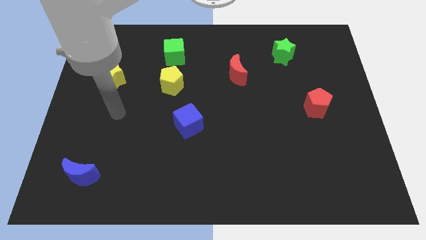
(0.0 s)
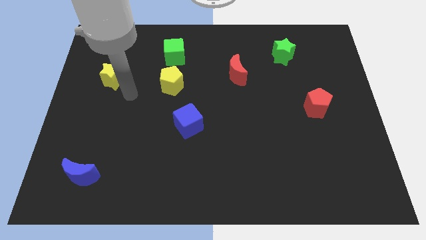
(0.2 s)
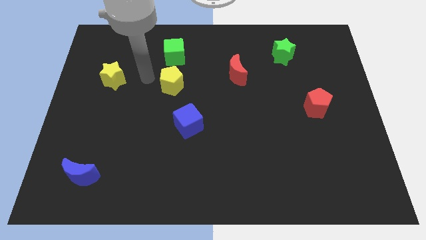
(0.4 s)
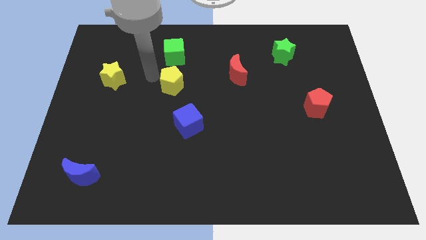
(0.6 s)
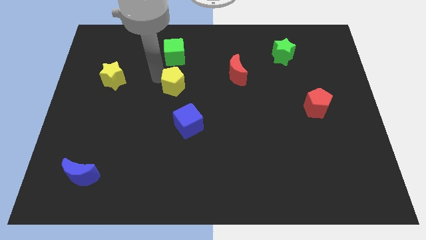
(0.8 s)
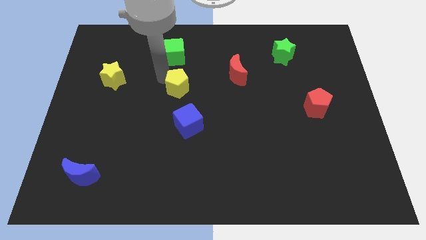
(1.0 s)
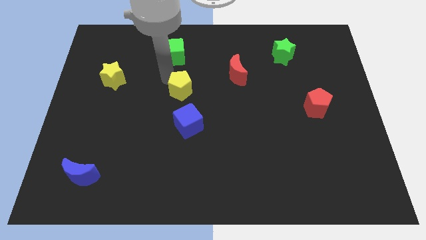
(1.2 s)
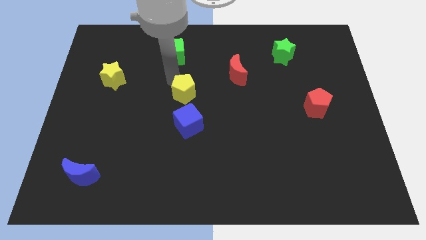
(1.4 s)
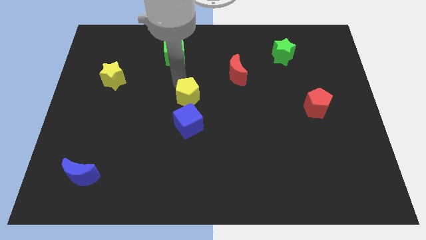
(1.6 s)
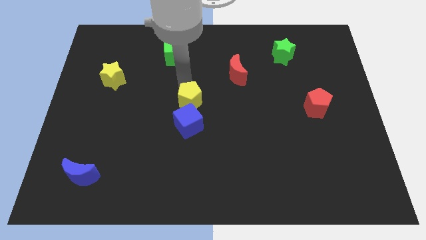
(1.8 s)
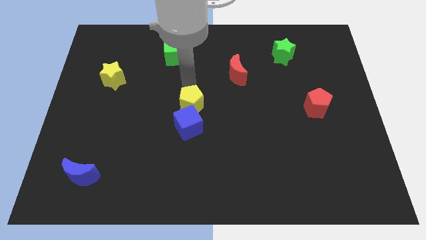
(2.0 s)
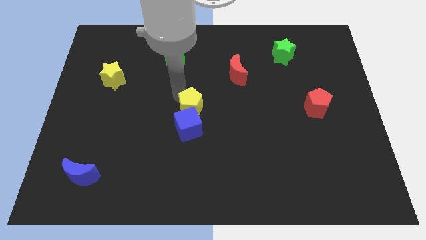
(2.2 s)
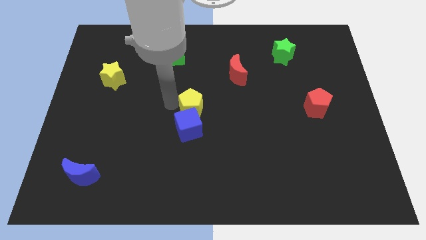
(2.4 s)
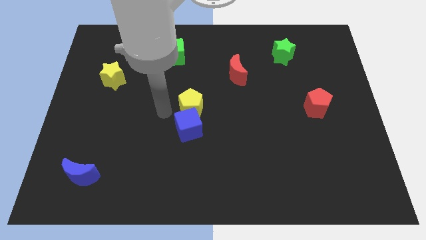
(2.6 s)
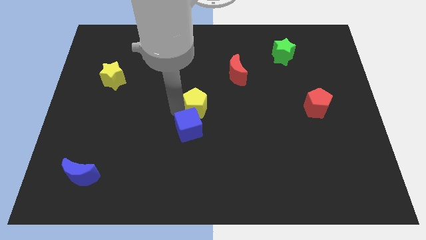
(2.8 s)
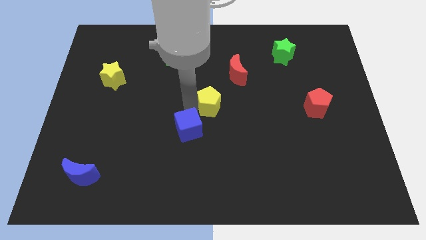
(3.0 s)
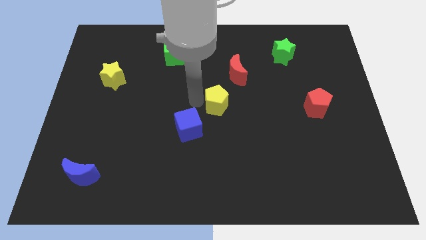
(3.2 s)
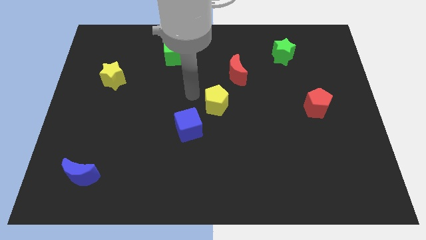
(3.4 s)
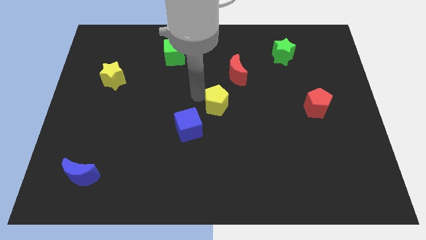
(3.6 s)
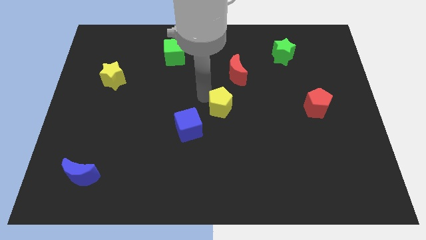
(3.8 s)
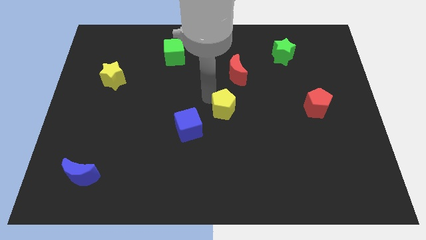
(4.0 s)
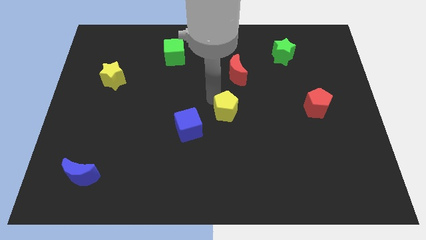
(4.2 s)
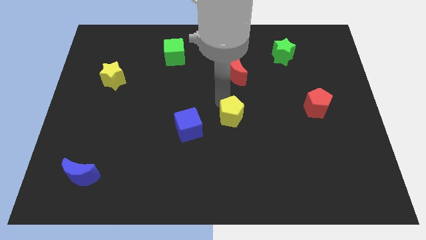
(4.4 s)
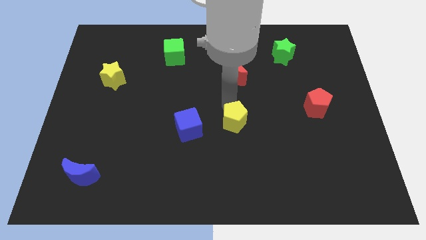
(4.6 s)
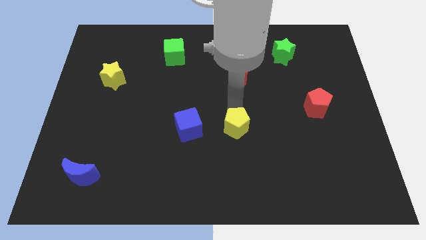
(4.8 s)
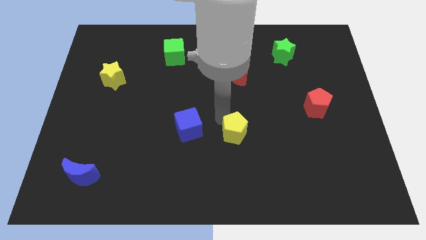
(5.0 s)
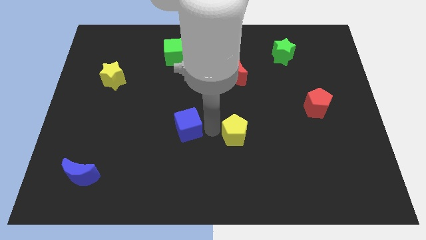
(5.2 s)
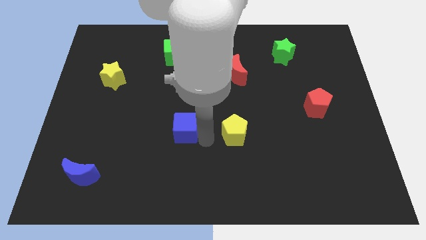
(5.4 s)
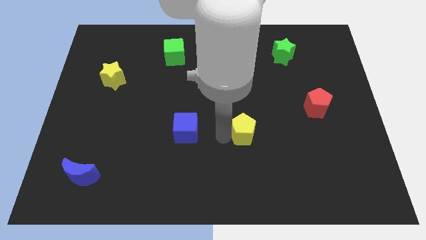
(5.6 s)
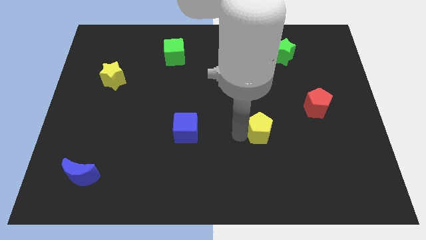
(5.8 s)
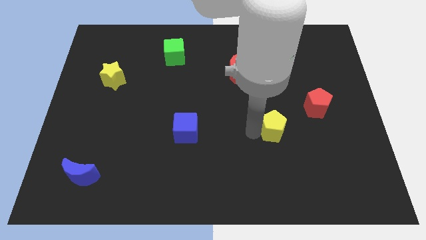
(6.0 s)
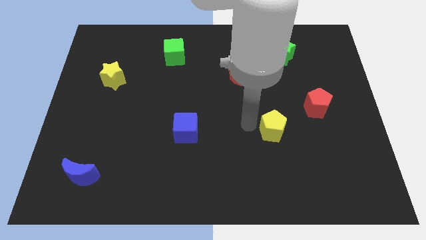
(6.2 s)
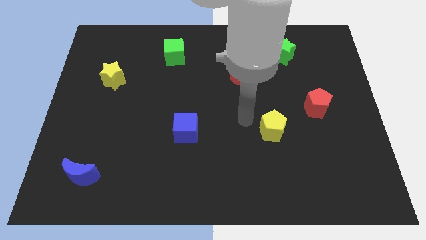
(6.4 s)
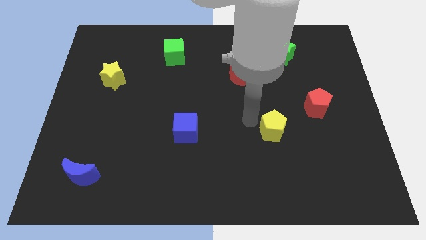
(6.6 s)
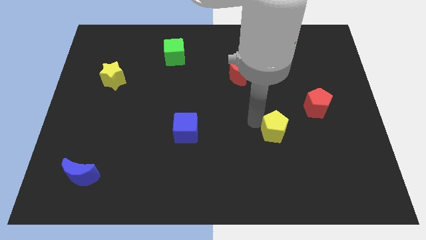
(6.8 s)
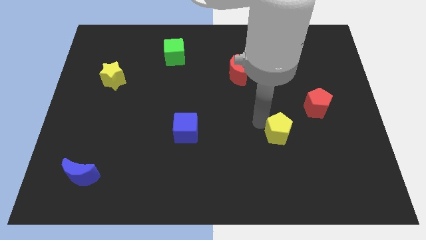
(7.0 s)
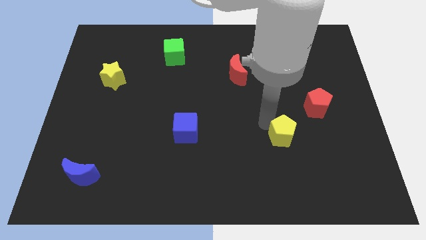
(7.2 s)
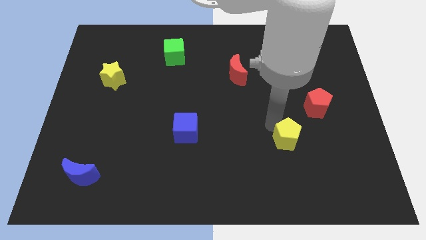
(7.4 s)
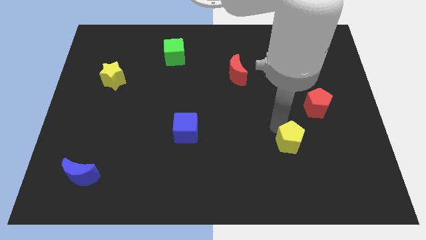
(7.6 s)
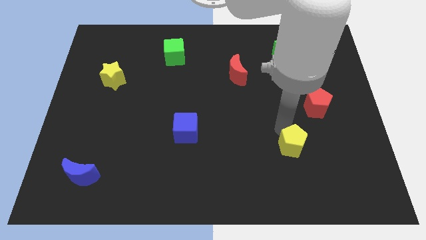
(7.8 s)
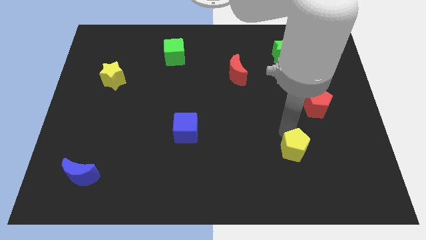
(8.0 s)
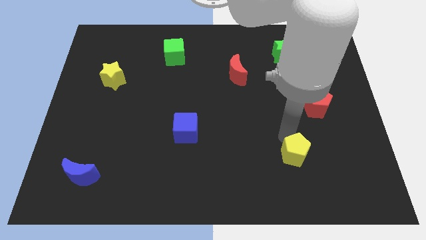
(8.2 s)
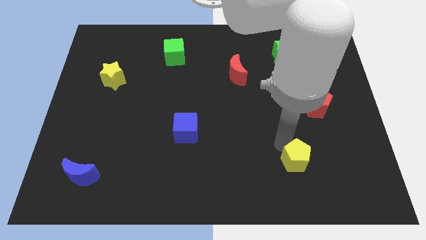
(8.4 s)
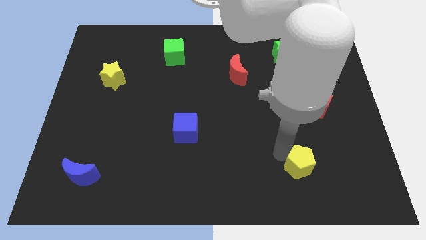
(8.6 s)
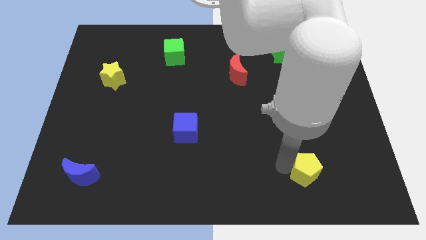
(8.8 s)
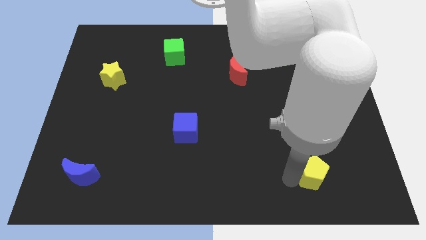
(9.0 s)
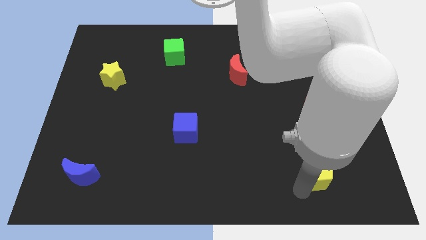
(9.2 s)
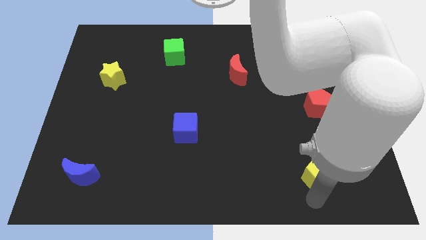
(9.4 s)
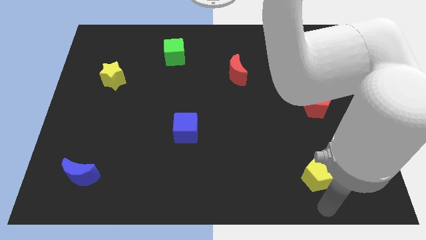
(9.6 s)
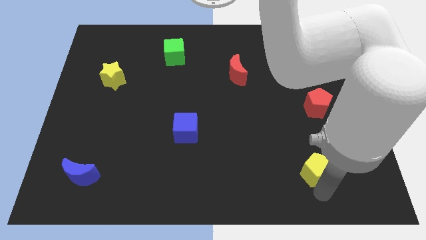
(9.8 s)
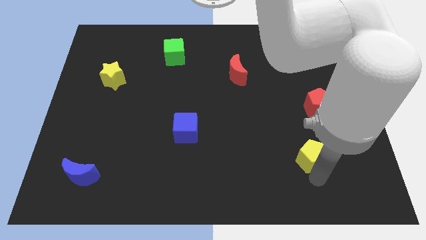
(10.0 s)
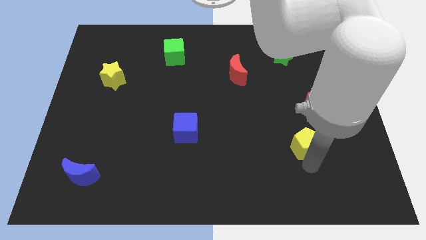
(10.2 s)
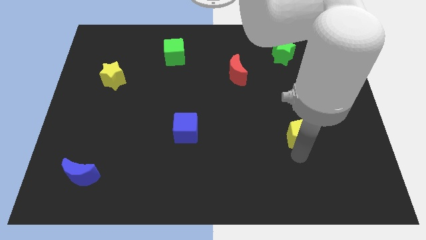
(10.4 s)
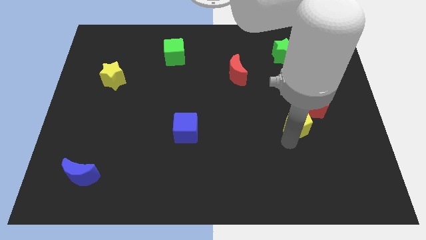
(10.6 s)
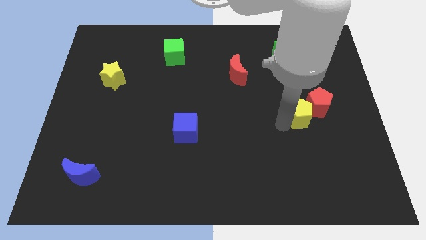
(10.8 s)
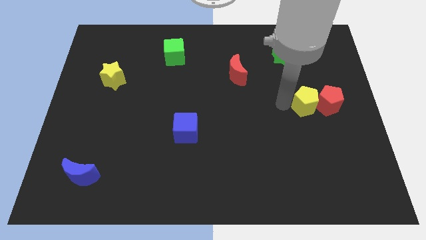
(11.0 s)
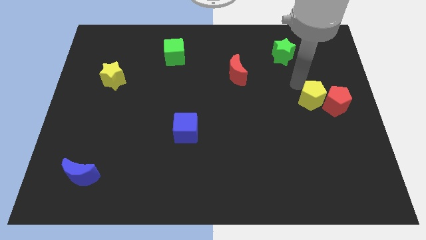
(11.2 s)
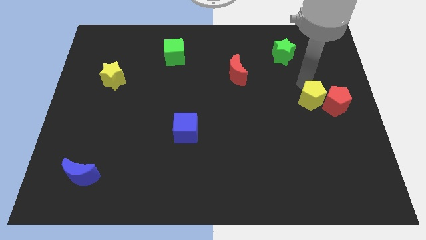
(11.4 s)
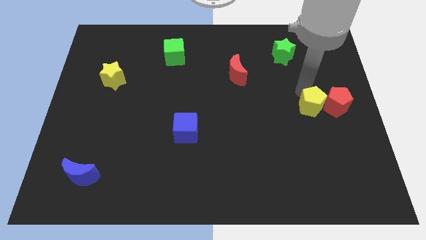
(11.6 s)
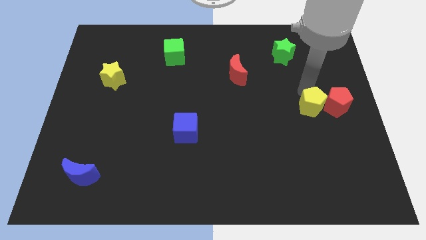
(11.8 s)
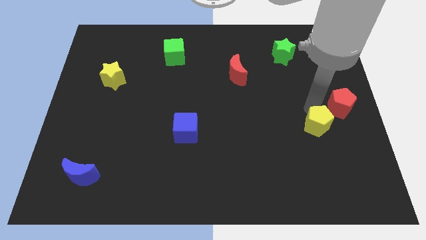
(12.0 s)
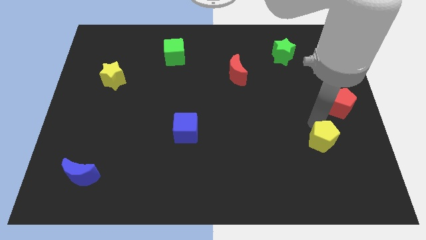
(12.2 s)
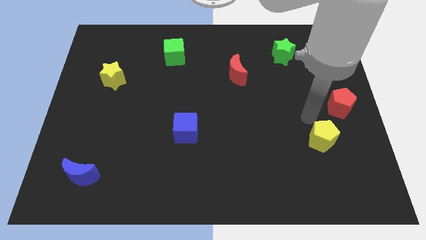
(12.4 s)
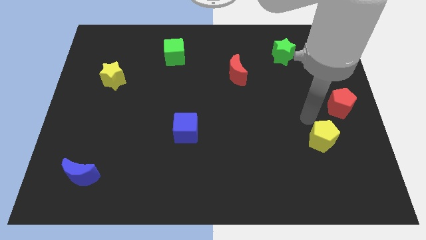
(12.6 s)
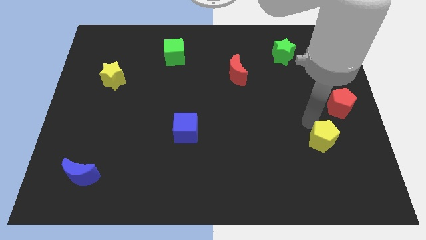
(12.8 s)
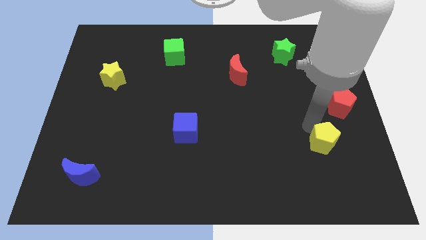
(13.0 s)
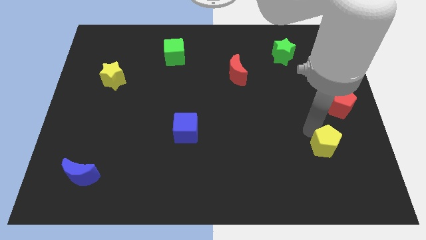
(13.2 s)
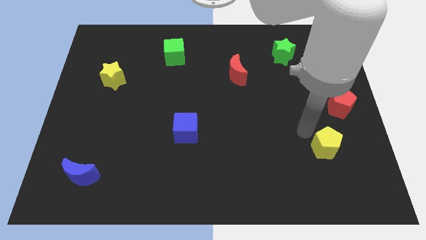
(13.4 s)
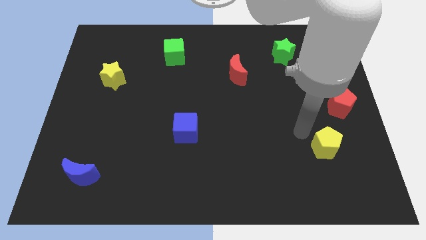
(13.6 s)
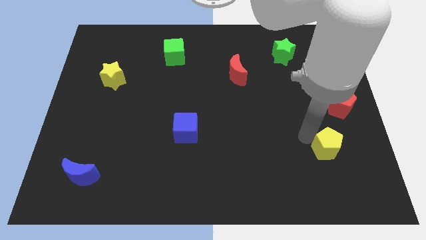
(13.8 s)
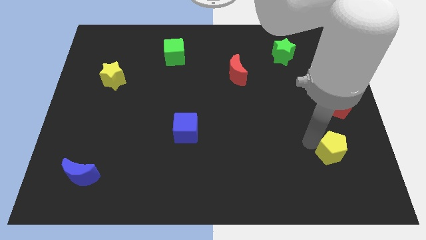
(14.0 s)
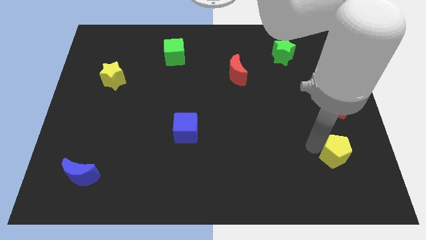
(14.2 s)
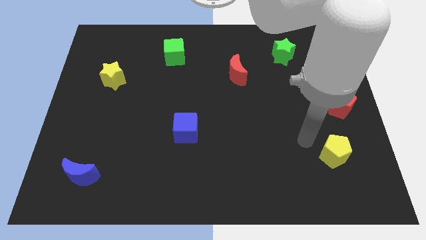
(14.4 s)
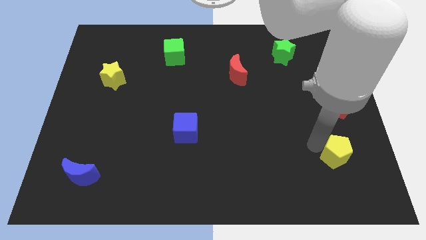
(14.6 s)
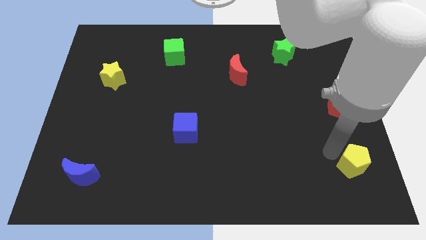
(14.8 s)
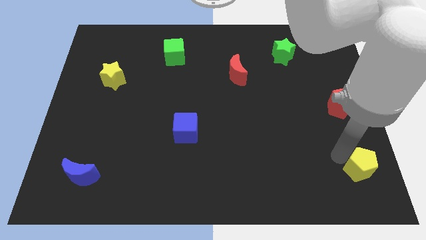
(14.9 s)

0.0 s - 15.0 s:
put the yellow pentagon to the bottom right of the board
